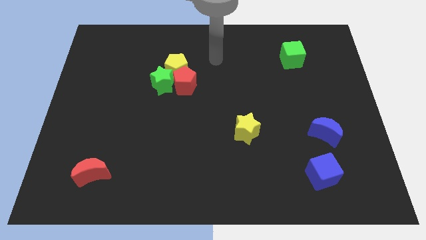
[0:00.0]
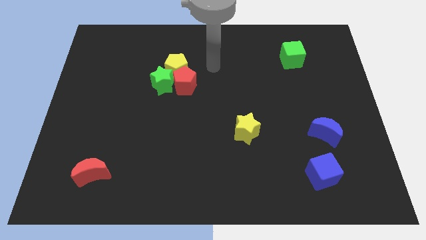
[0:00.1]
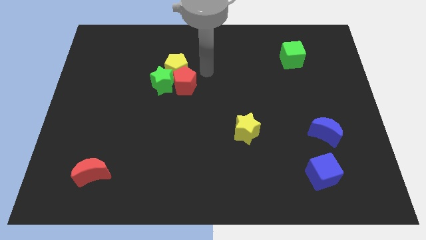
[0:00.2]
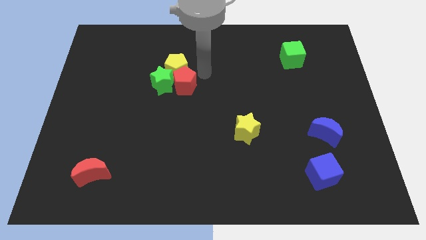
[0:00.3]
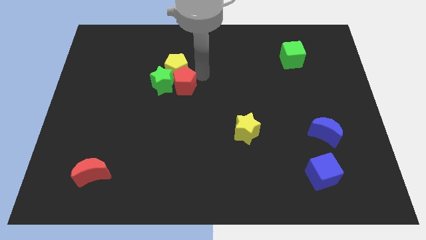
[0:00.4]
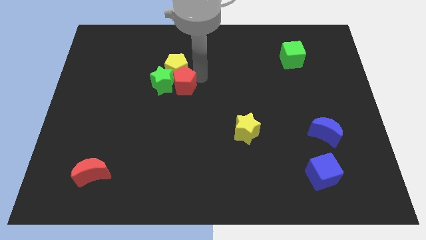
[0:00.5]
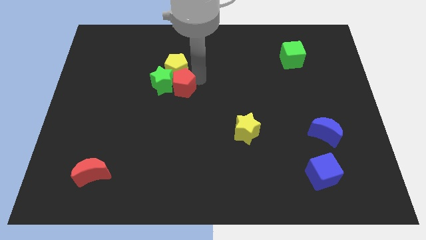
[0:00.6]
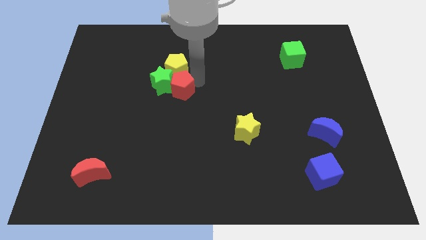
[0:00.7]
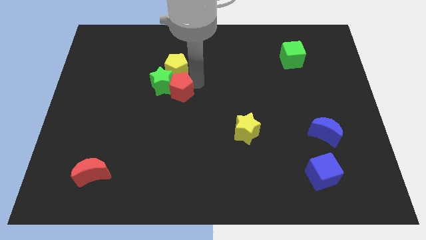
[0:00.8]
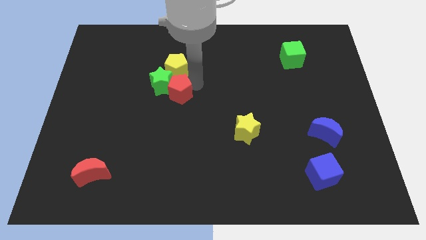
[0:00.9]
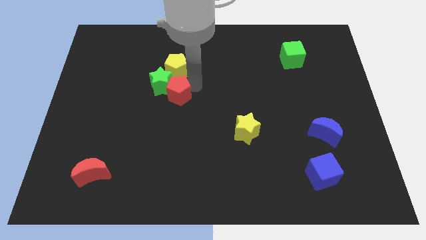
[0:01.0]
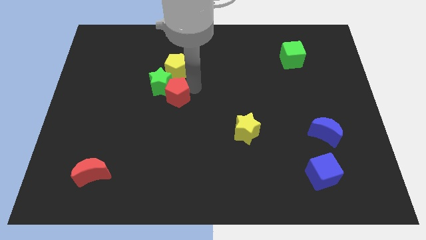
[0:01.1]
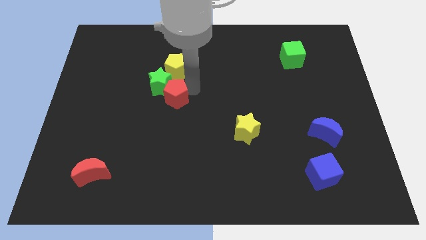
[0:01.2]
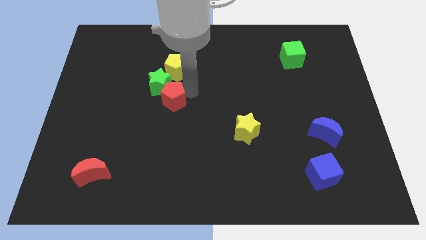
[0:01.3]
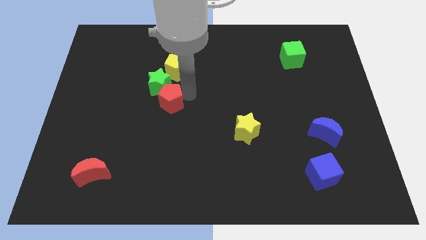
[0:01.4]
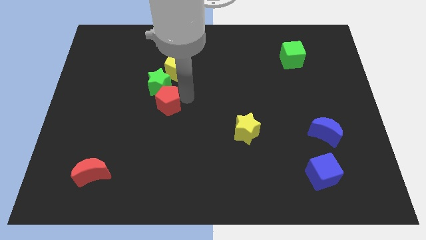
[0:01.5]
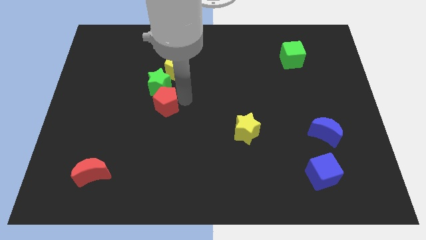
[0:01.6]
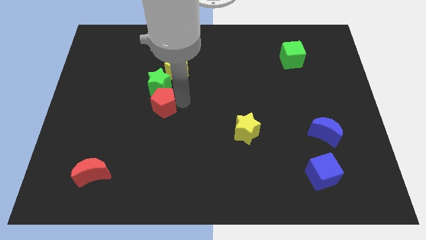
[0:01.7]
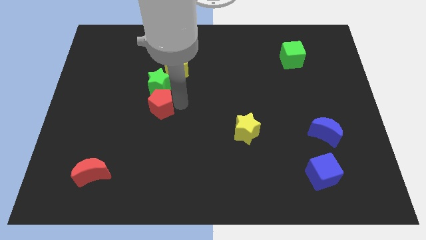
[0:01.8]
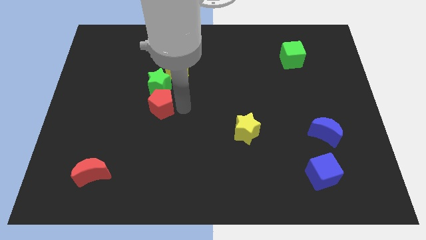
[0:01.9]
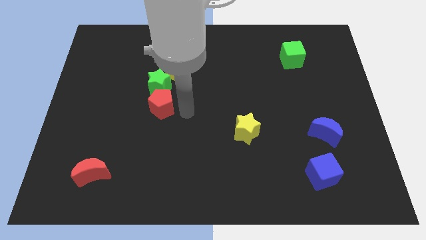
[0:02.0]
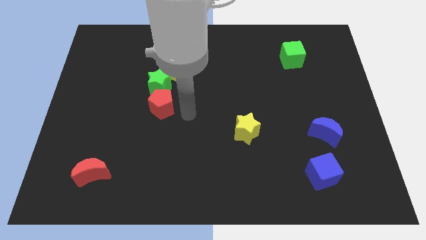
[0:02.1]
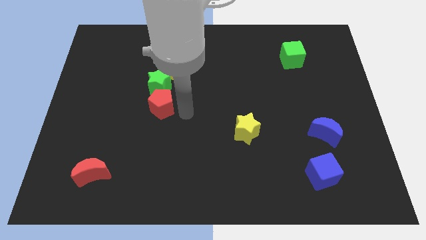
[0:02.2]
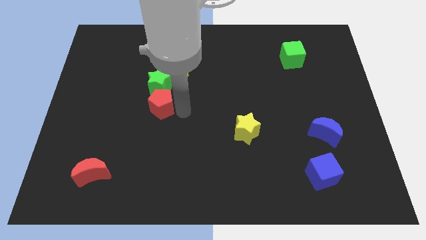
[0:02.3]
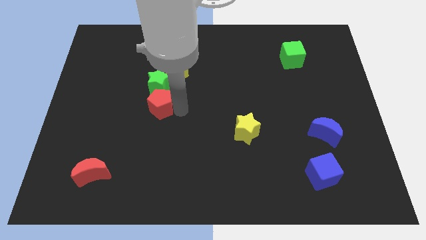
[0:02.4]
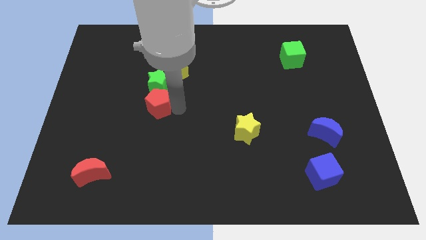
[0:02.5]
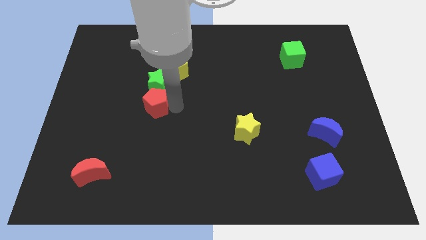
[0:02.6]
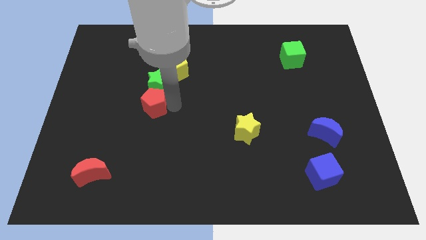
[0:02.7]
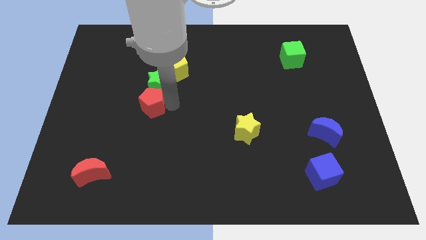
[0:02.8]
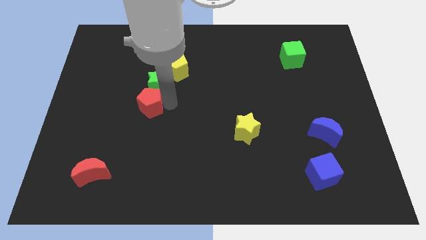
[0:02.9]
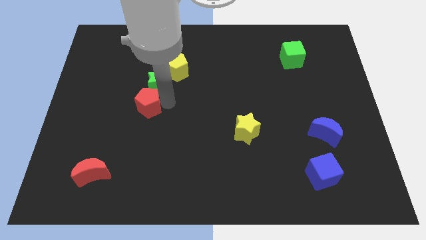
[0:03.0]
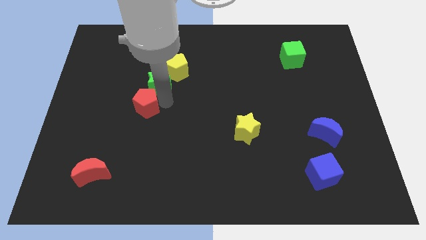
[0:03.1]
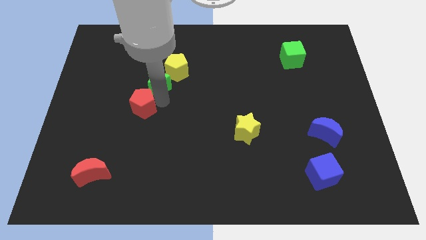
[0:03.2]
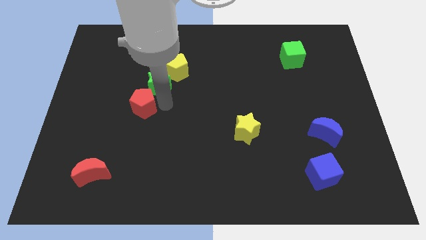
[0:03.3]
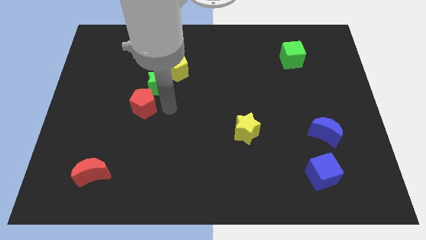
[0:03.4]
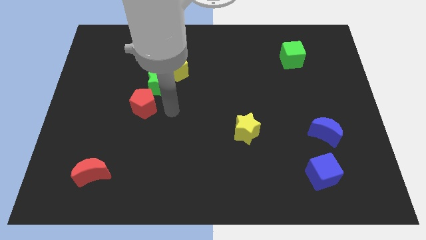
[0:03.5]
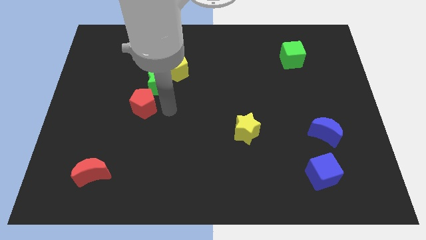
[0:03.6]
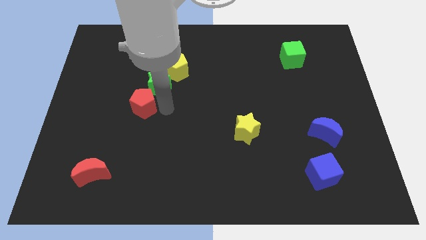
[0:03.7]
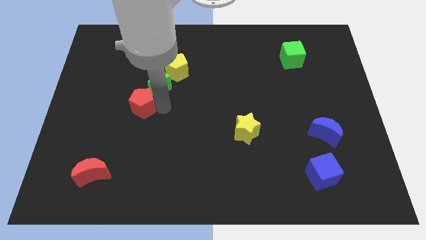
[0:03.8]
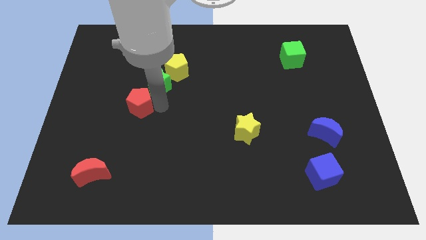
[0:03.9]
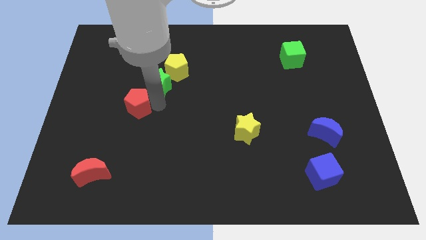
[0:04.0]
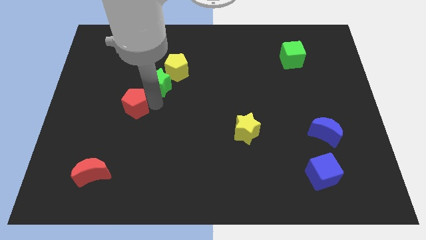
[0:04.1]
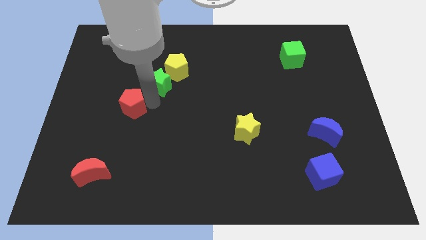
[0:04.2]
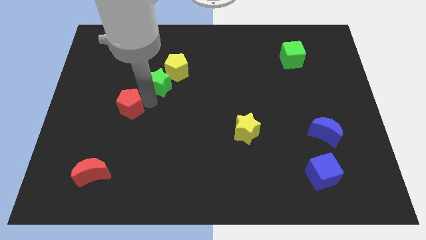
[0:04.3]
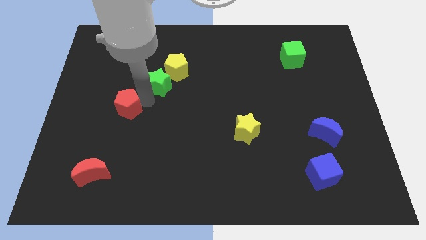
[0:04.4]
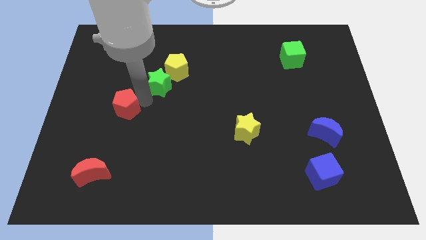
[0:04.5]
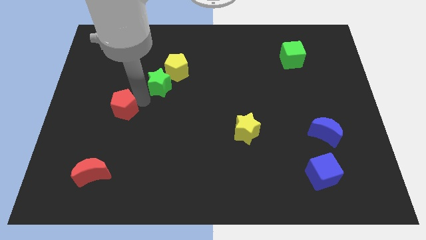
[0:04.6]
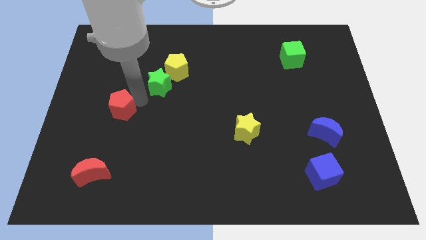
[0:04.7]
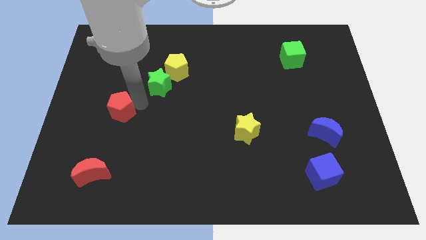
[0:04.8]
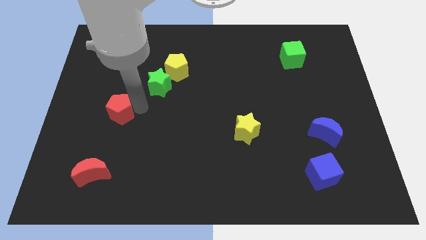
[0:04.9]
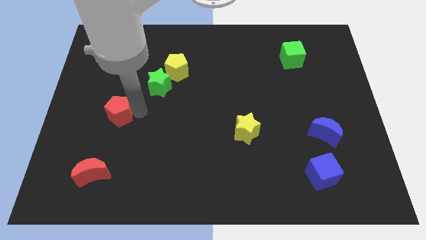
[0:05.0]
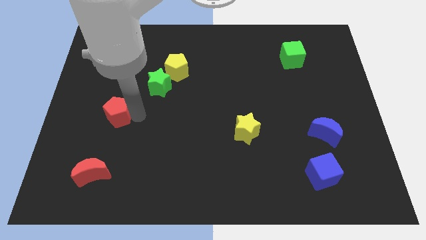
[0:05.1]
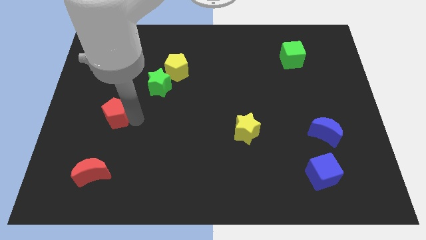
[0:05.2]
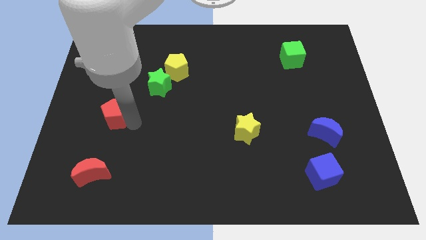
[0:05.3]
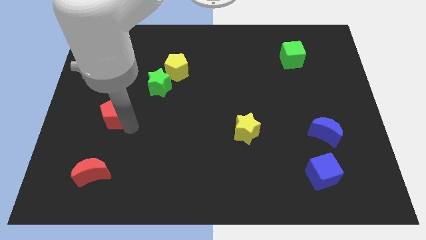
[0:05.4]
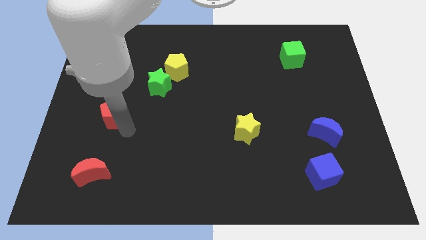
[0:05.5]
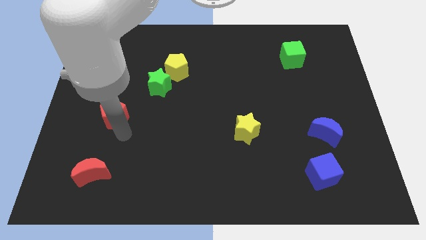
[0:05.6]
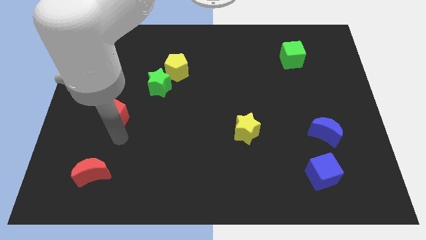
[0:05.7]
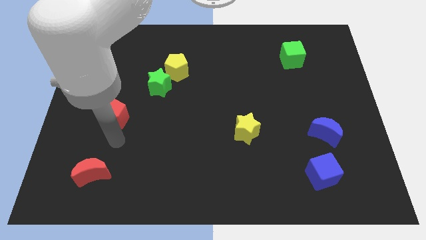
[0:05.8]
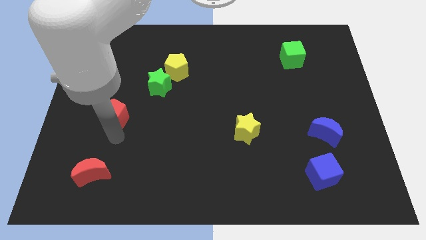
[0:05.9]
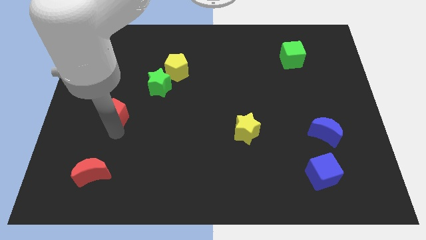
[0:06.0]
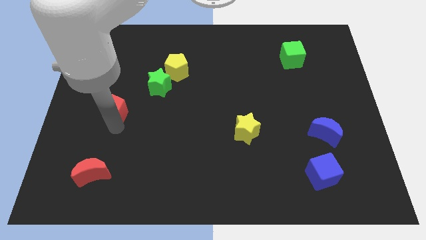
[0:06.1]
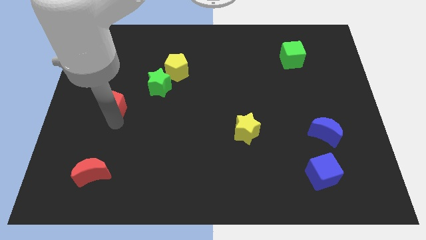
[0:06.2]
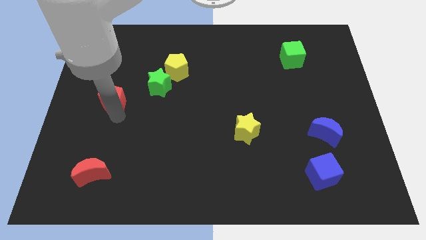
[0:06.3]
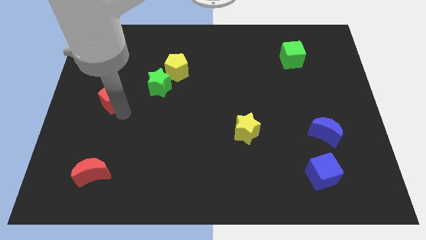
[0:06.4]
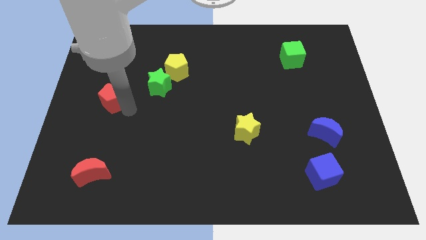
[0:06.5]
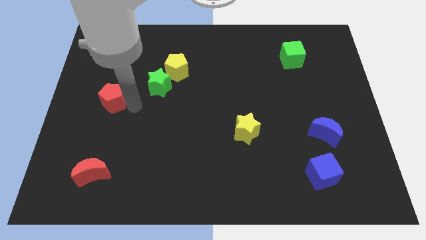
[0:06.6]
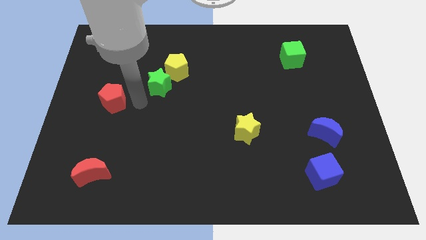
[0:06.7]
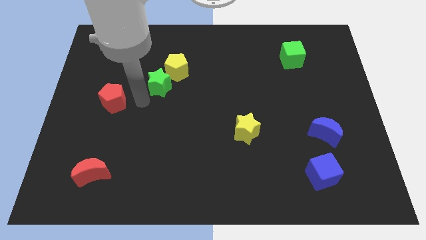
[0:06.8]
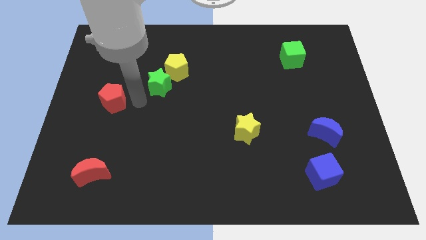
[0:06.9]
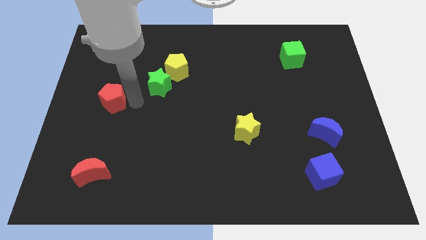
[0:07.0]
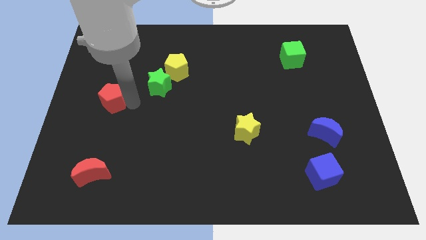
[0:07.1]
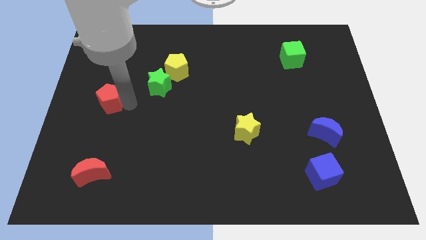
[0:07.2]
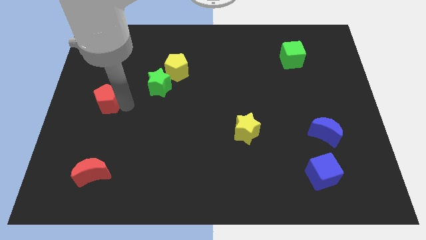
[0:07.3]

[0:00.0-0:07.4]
push the red pentagon to the left side of the board
